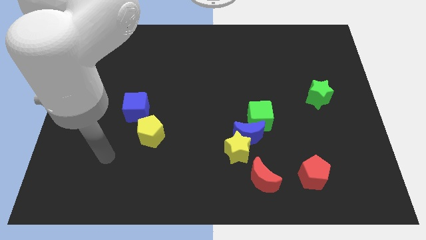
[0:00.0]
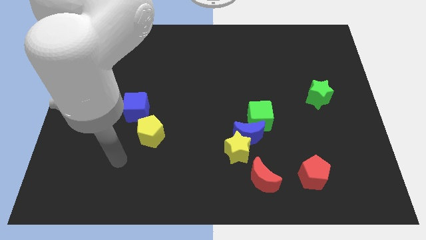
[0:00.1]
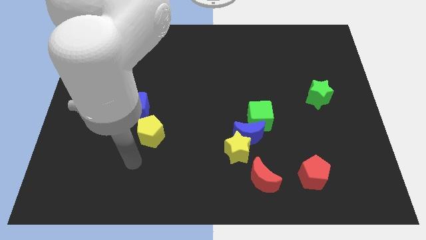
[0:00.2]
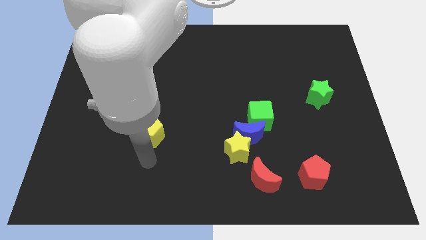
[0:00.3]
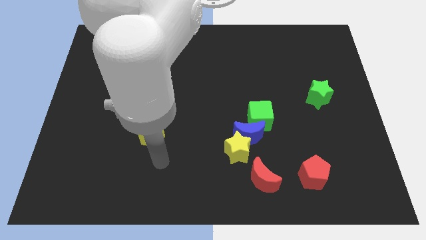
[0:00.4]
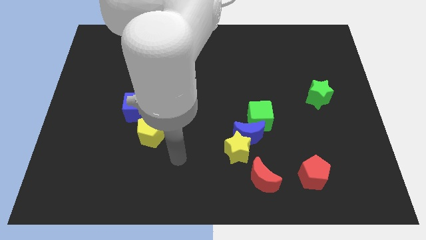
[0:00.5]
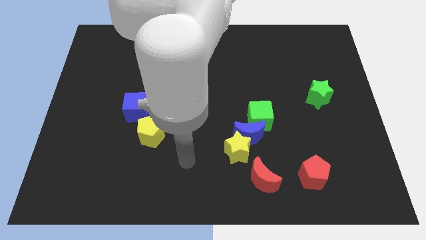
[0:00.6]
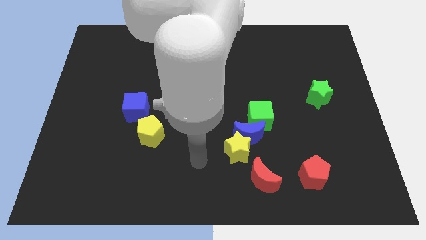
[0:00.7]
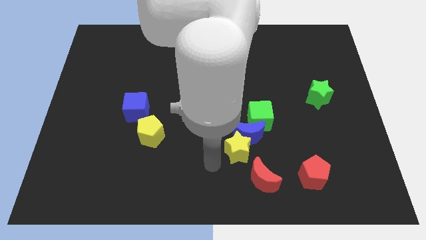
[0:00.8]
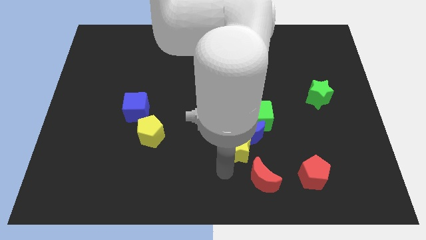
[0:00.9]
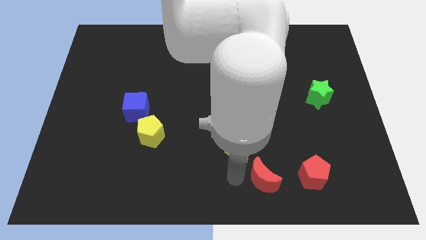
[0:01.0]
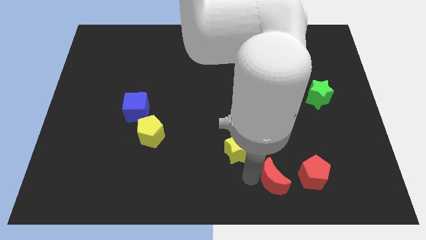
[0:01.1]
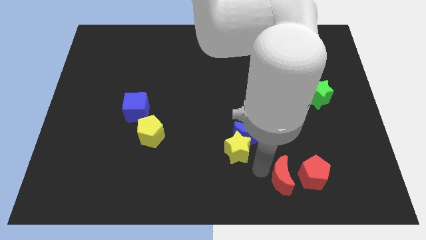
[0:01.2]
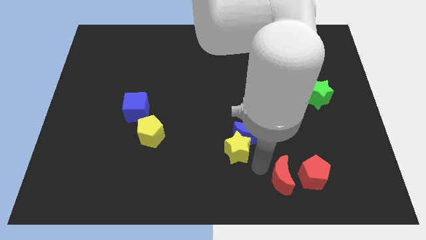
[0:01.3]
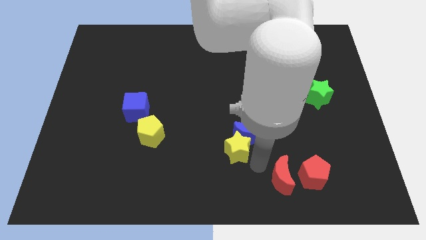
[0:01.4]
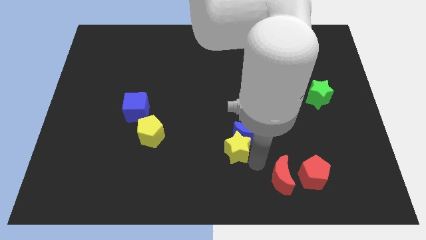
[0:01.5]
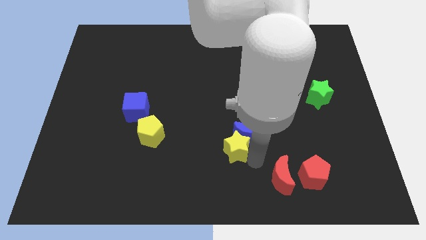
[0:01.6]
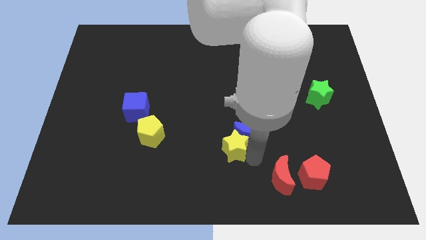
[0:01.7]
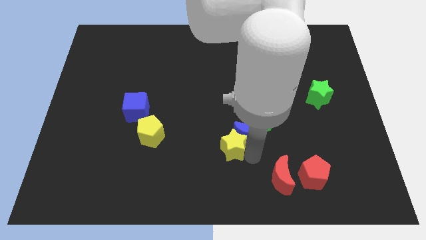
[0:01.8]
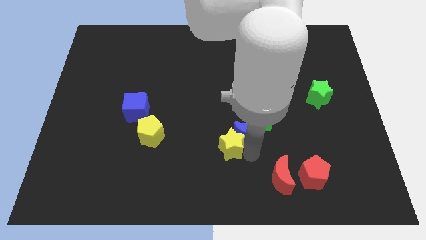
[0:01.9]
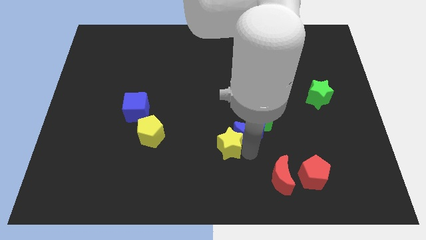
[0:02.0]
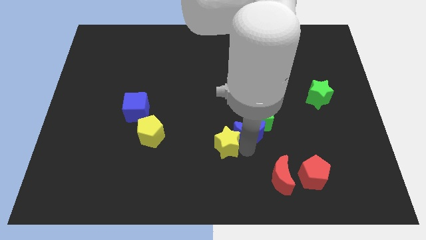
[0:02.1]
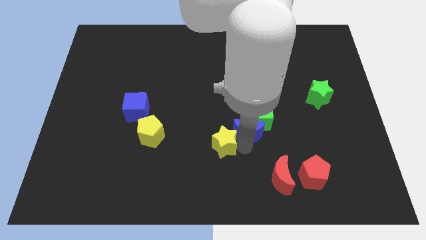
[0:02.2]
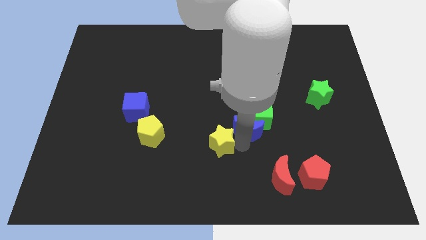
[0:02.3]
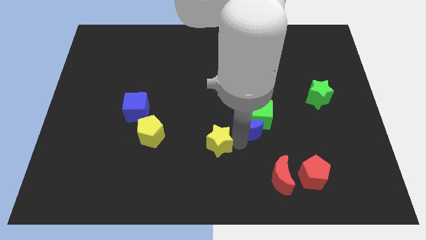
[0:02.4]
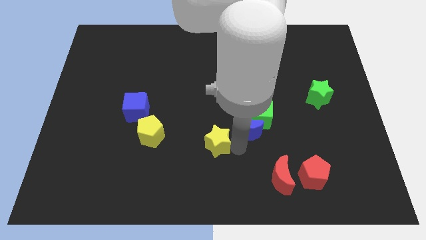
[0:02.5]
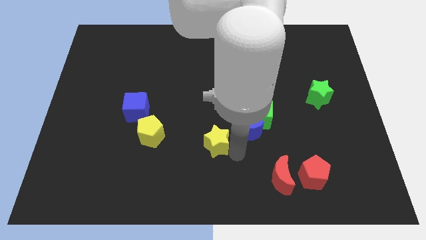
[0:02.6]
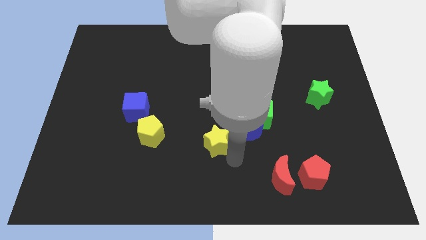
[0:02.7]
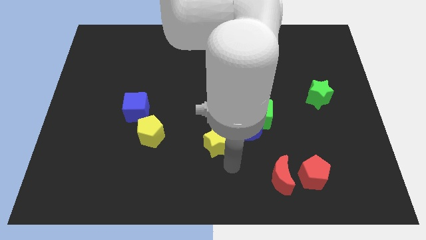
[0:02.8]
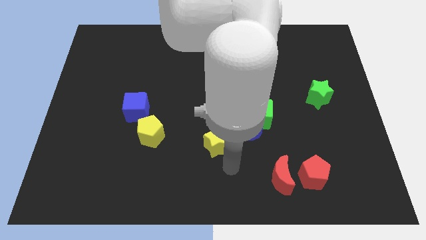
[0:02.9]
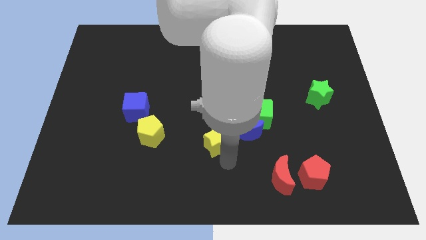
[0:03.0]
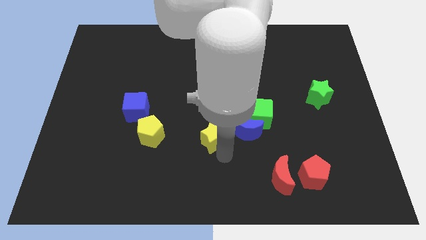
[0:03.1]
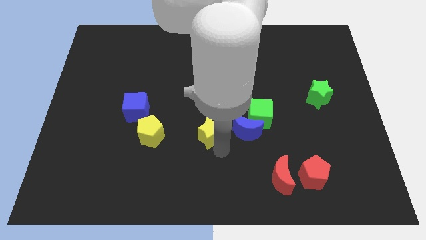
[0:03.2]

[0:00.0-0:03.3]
push the yellow star somewhat up and to the left diagonally

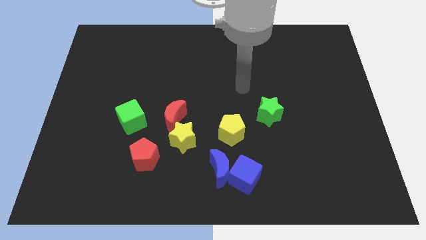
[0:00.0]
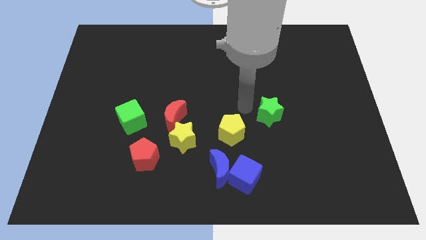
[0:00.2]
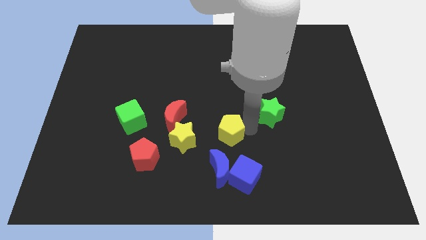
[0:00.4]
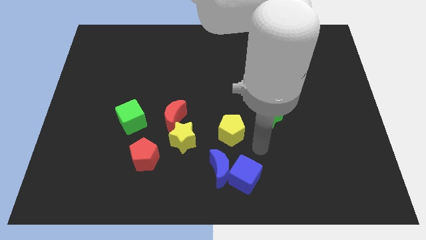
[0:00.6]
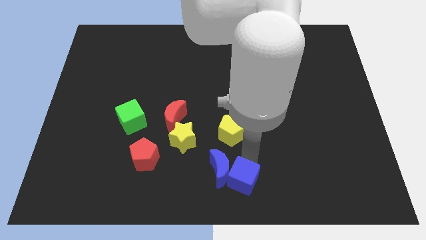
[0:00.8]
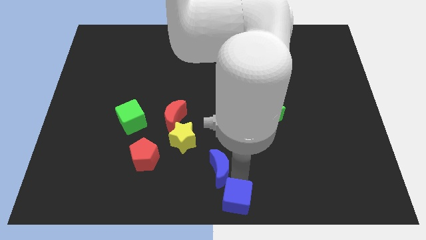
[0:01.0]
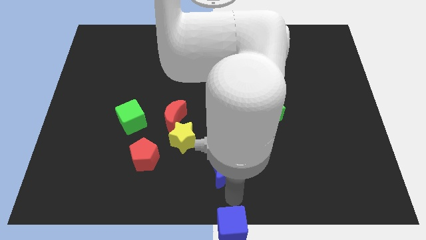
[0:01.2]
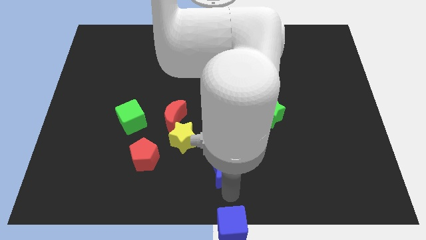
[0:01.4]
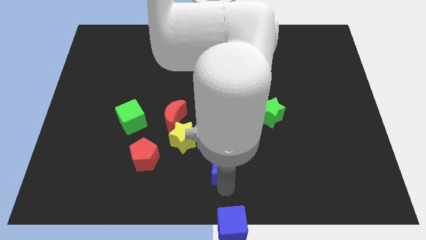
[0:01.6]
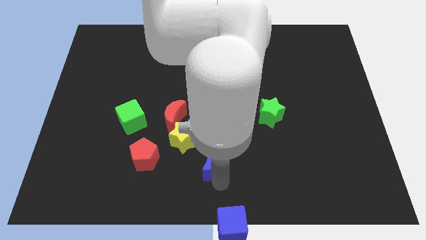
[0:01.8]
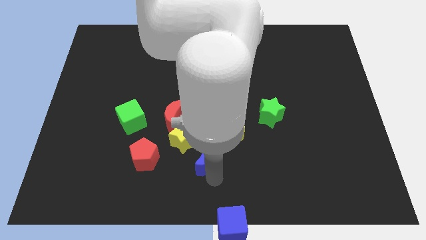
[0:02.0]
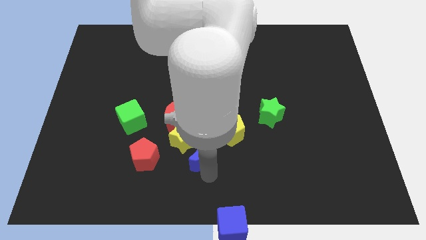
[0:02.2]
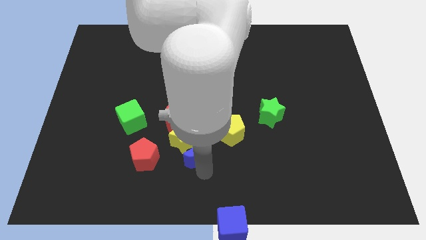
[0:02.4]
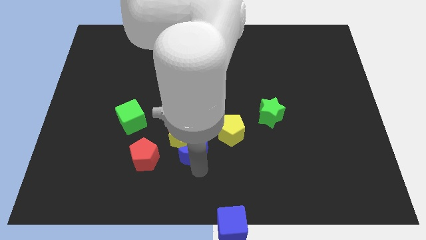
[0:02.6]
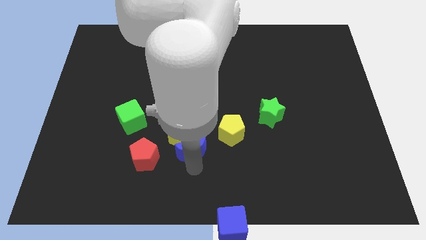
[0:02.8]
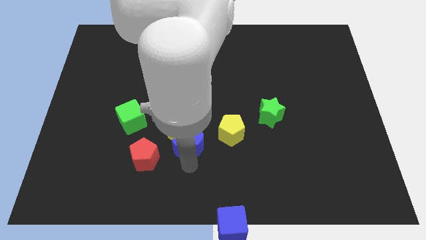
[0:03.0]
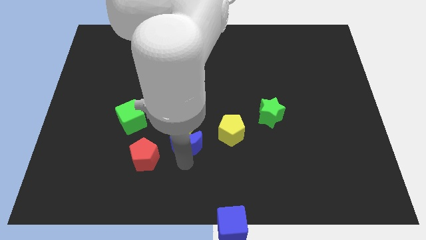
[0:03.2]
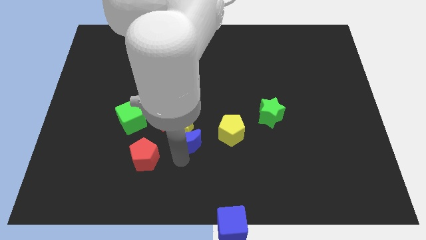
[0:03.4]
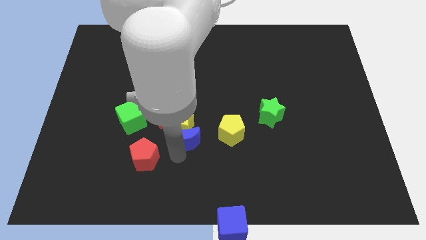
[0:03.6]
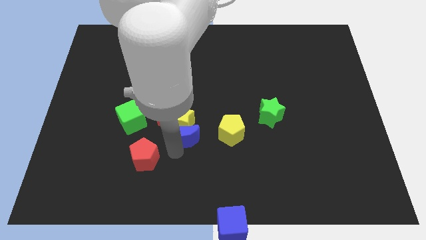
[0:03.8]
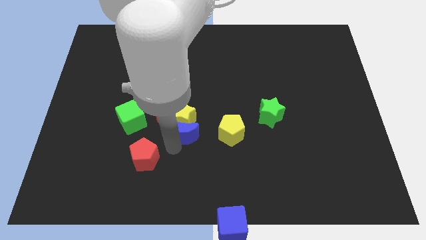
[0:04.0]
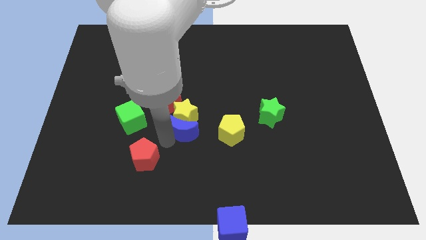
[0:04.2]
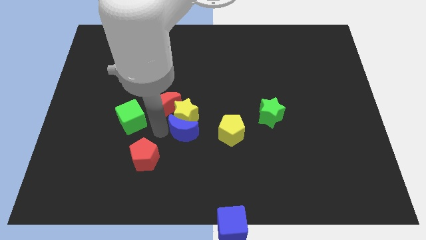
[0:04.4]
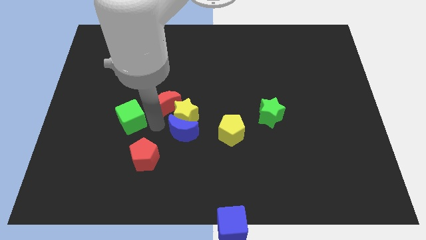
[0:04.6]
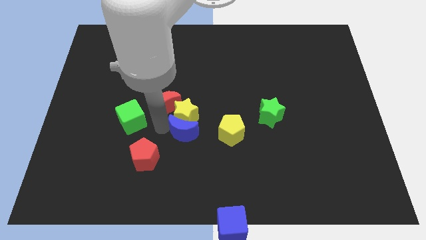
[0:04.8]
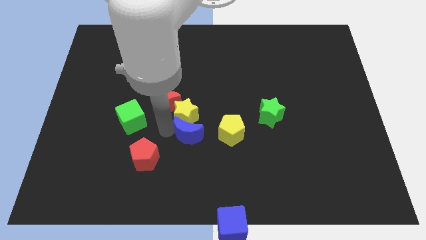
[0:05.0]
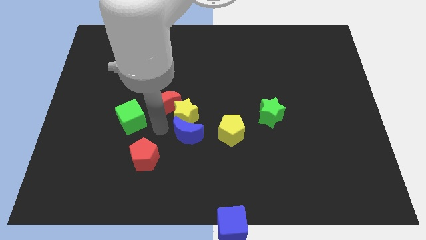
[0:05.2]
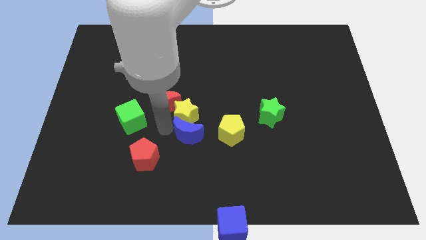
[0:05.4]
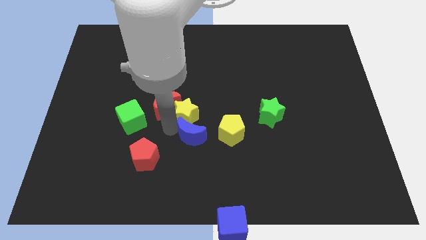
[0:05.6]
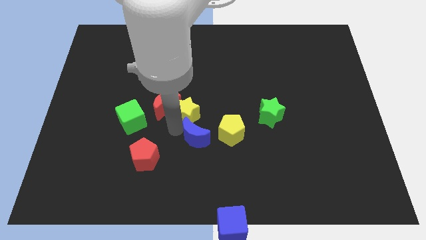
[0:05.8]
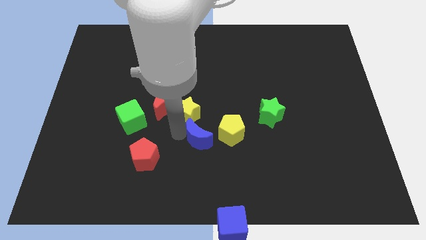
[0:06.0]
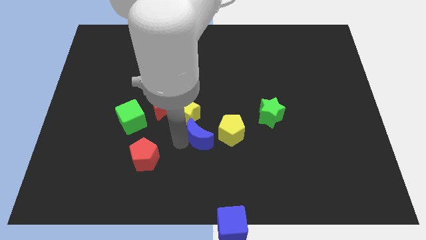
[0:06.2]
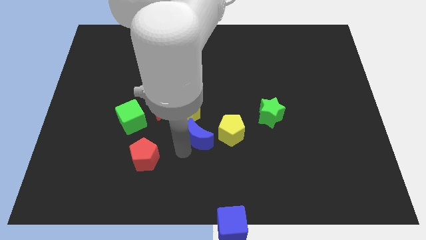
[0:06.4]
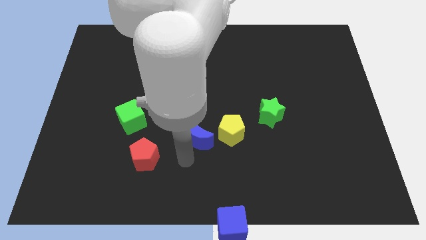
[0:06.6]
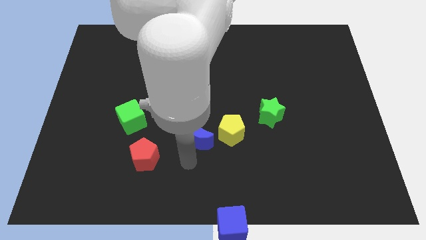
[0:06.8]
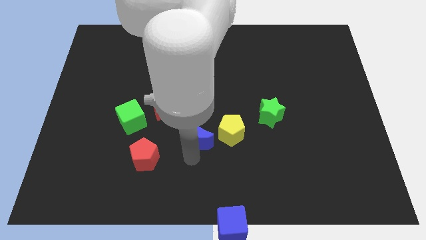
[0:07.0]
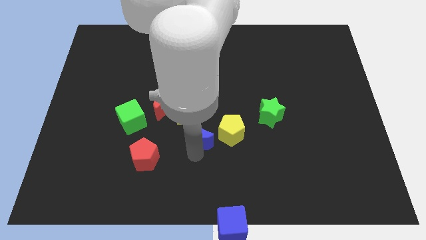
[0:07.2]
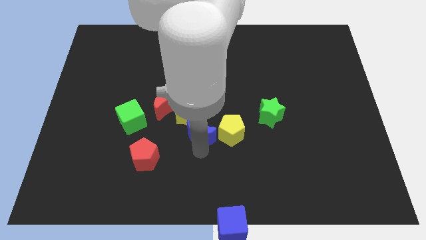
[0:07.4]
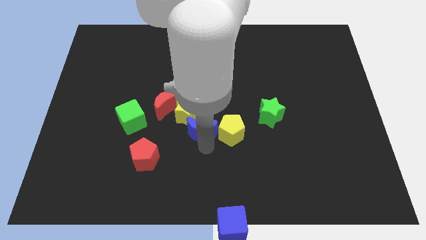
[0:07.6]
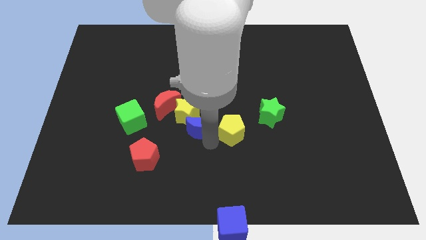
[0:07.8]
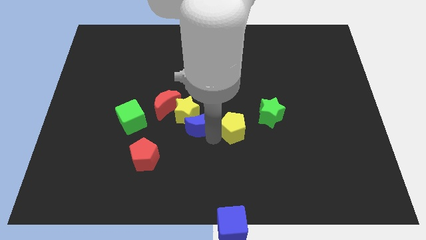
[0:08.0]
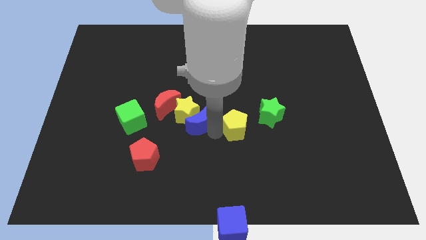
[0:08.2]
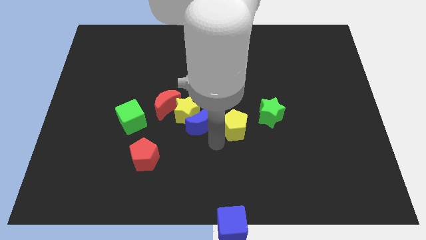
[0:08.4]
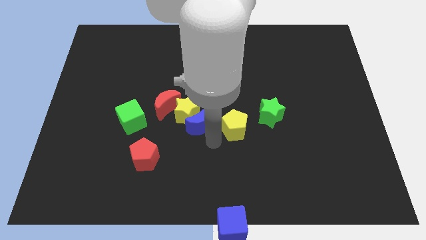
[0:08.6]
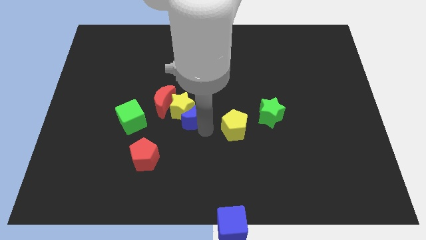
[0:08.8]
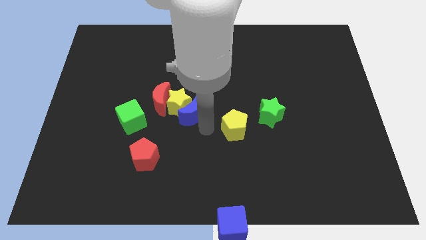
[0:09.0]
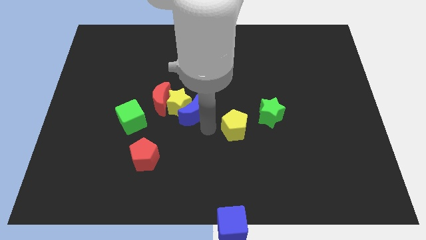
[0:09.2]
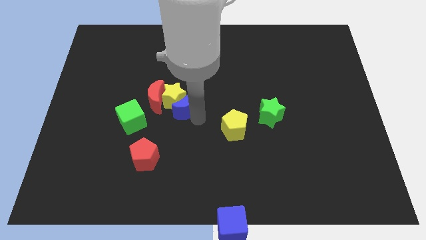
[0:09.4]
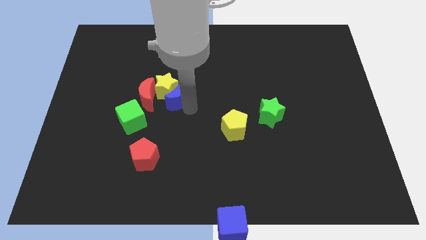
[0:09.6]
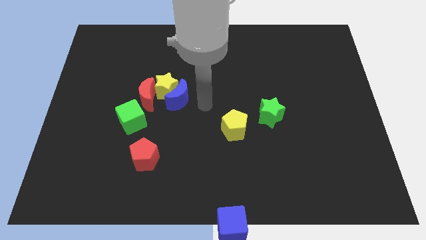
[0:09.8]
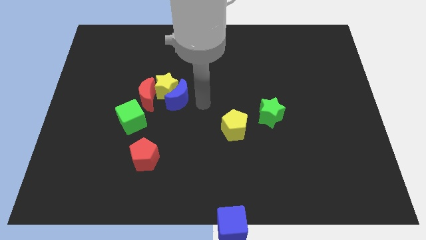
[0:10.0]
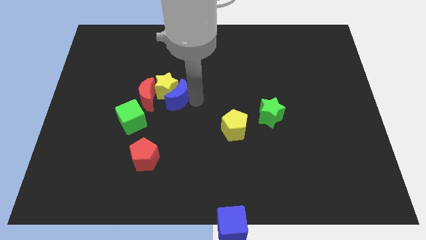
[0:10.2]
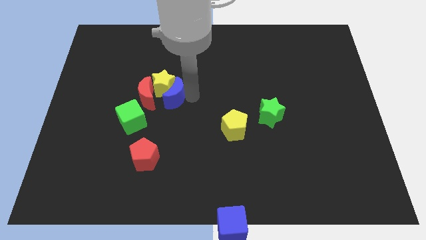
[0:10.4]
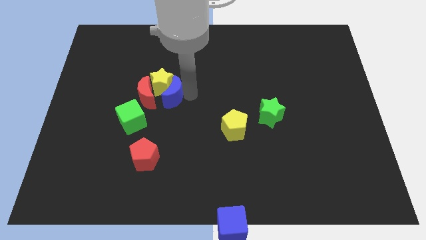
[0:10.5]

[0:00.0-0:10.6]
push the blue moon upwards and left diagonally
